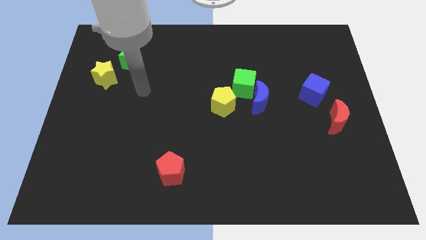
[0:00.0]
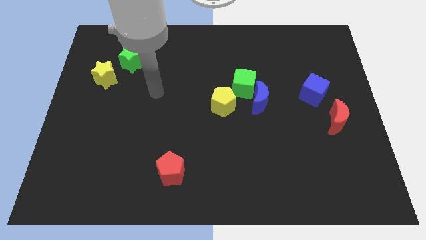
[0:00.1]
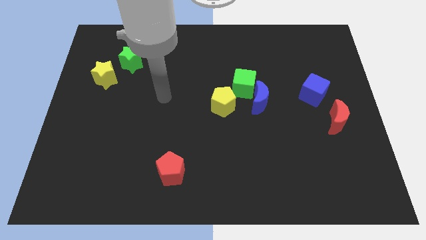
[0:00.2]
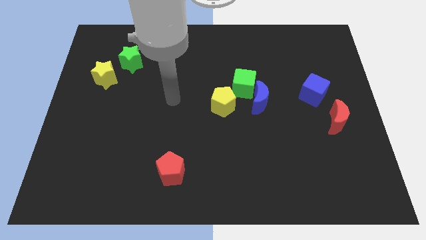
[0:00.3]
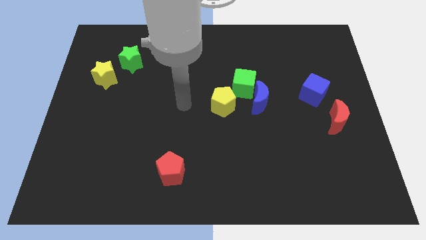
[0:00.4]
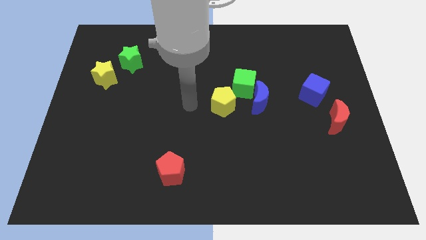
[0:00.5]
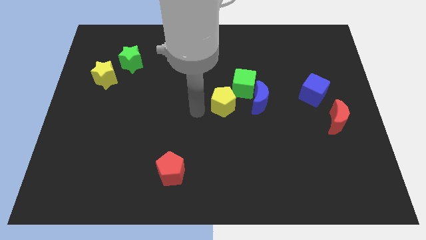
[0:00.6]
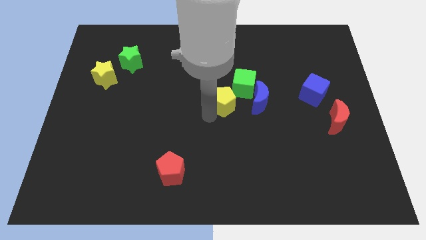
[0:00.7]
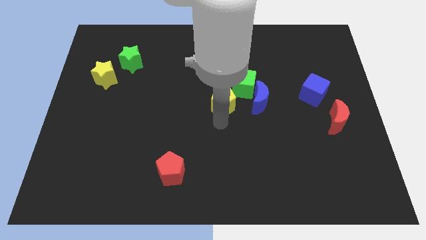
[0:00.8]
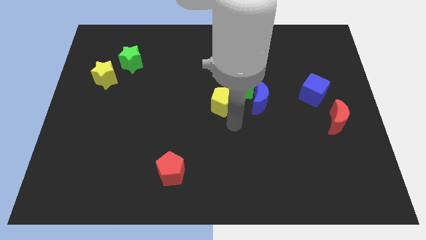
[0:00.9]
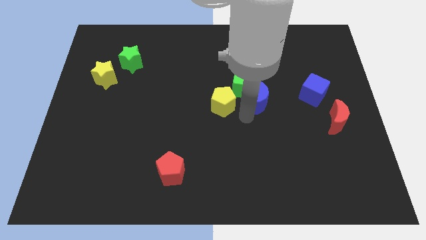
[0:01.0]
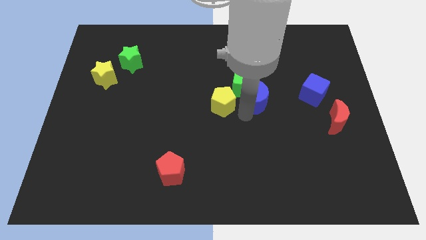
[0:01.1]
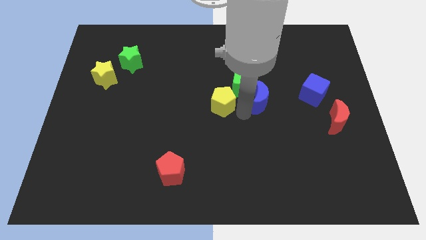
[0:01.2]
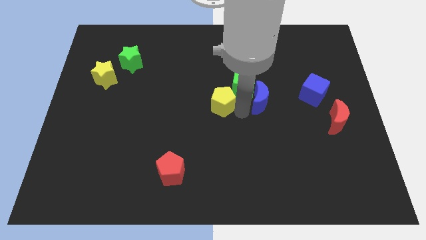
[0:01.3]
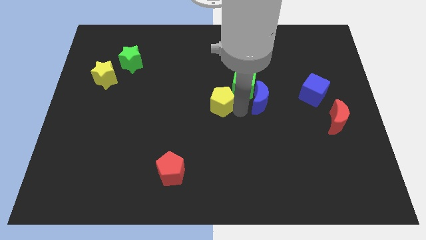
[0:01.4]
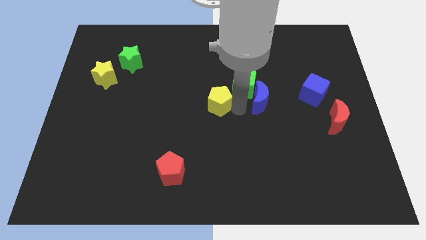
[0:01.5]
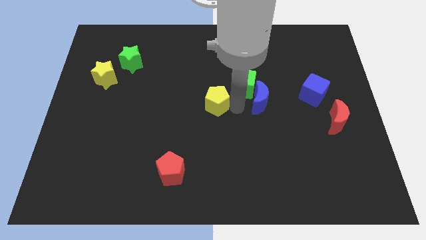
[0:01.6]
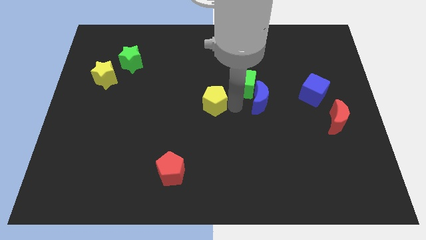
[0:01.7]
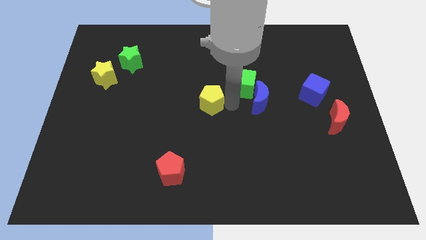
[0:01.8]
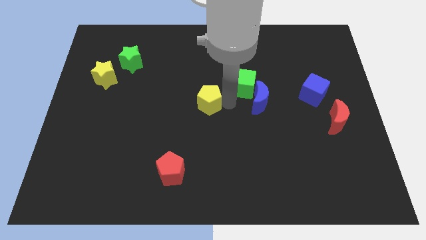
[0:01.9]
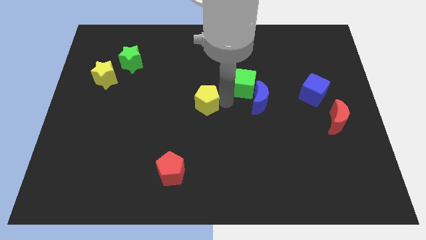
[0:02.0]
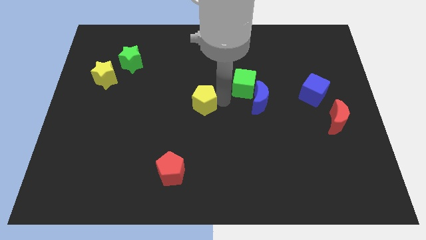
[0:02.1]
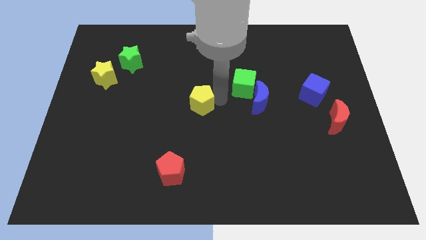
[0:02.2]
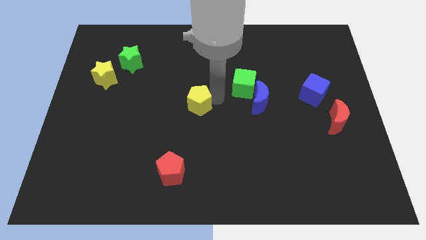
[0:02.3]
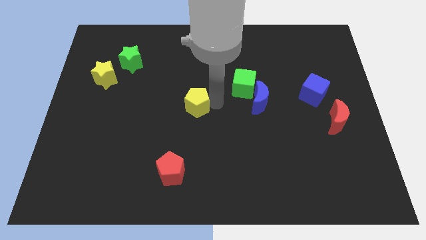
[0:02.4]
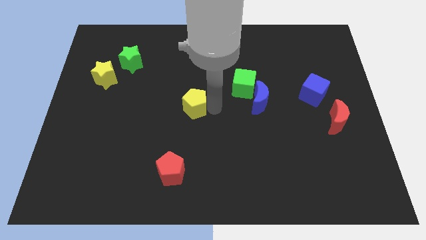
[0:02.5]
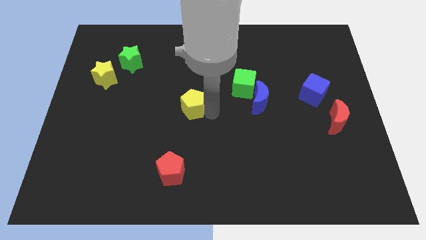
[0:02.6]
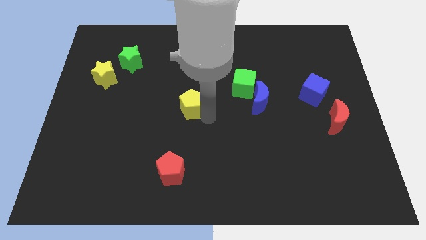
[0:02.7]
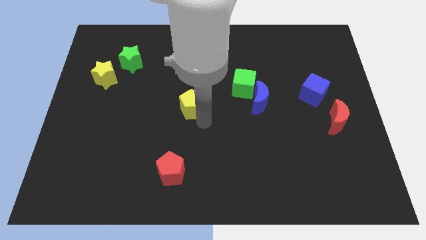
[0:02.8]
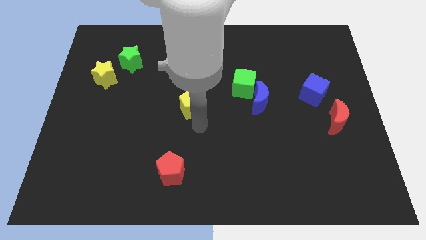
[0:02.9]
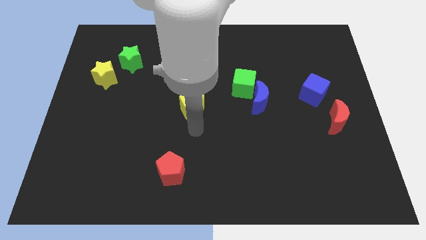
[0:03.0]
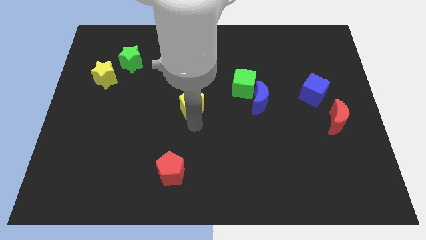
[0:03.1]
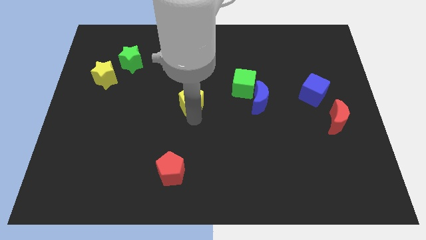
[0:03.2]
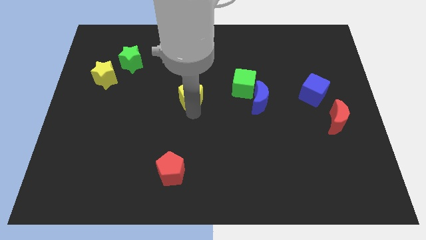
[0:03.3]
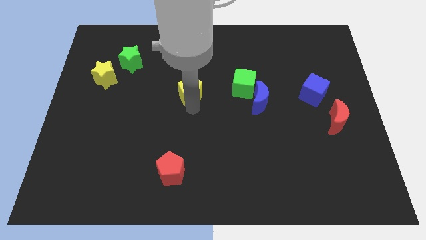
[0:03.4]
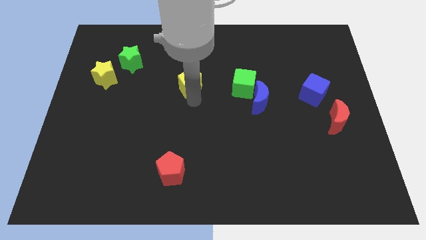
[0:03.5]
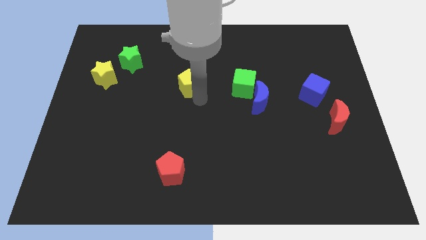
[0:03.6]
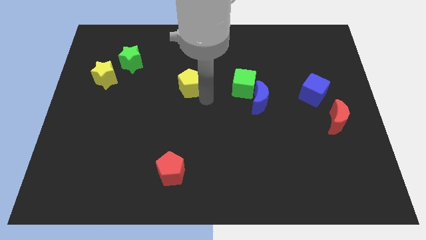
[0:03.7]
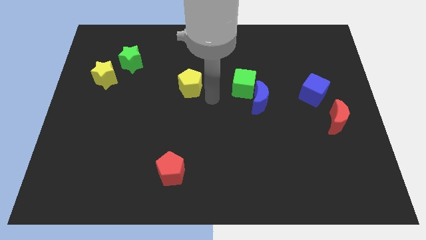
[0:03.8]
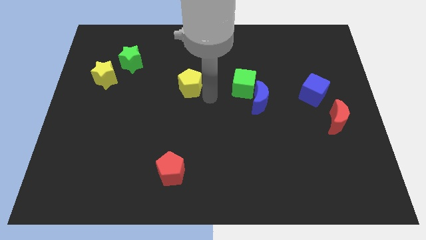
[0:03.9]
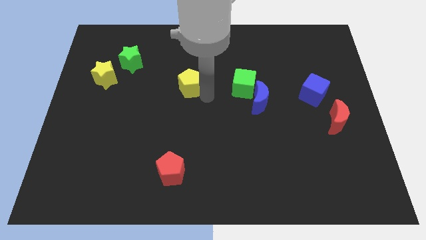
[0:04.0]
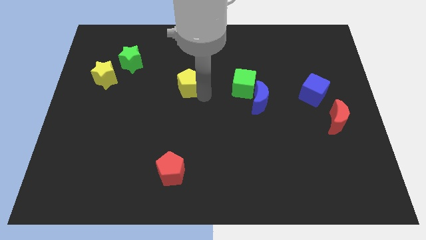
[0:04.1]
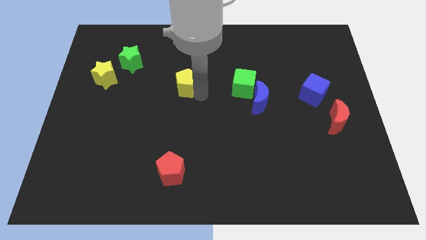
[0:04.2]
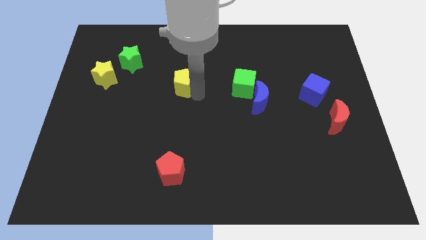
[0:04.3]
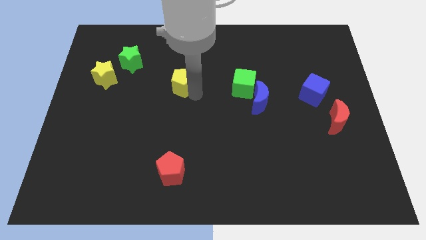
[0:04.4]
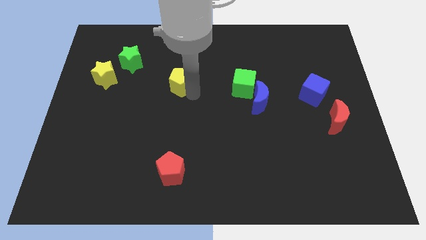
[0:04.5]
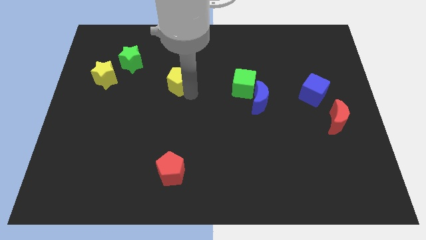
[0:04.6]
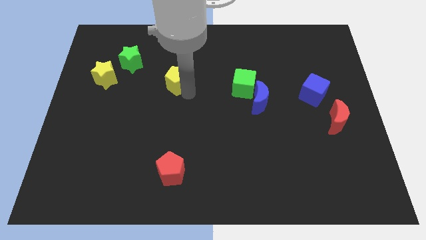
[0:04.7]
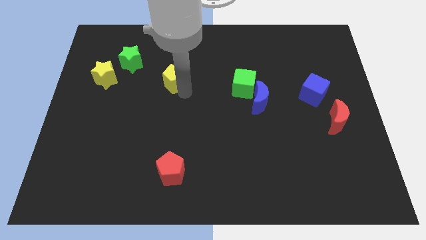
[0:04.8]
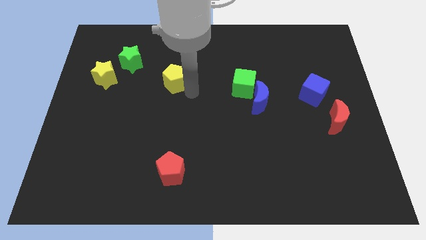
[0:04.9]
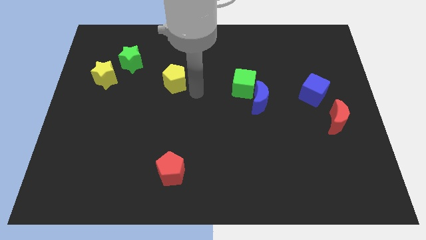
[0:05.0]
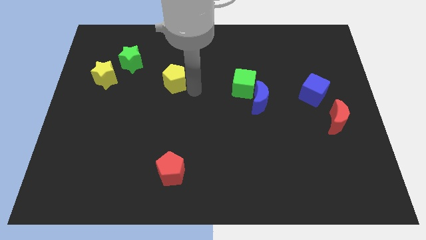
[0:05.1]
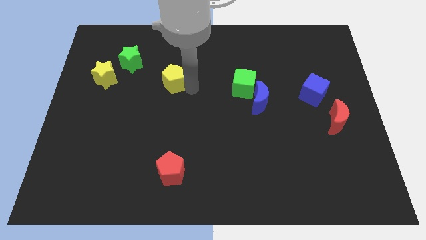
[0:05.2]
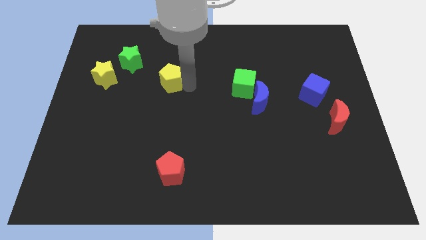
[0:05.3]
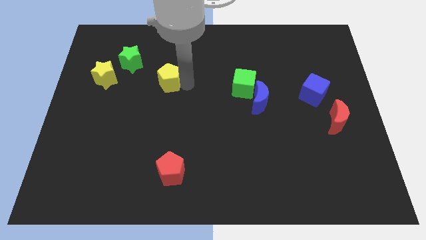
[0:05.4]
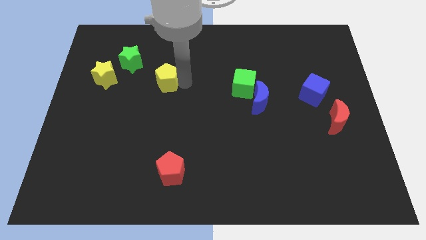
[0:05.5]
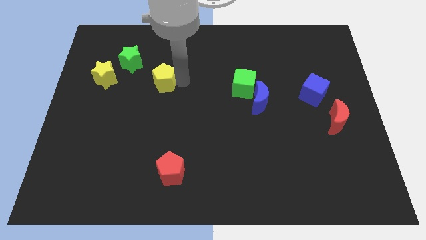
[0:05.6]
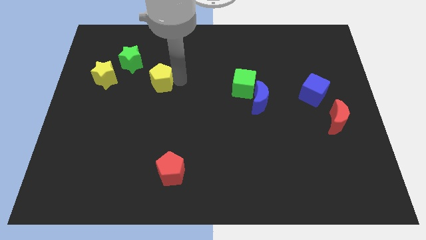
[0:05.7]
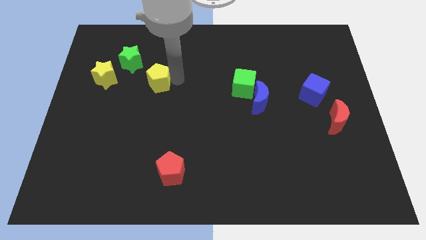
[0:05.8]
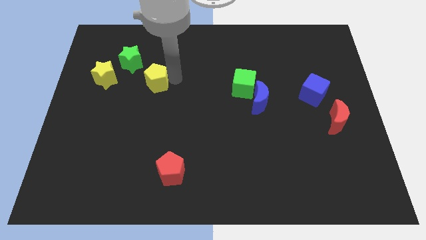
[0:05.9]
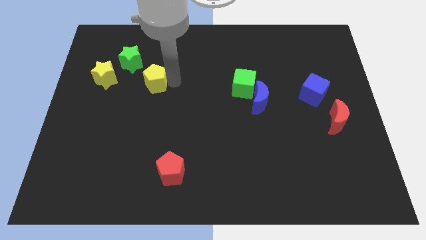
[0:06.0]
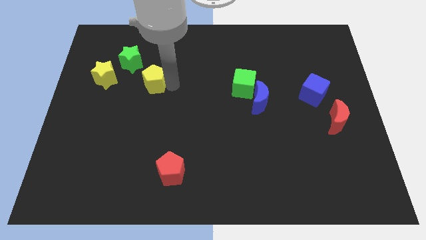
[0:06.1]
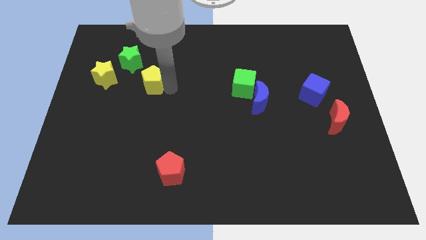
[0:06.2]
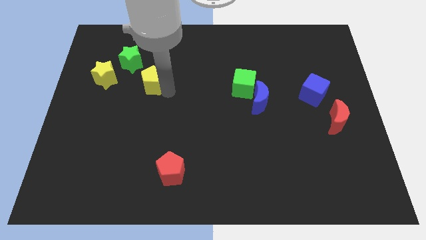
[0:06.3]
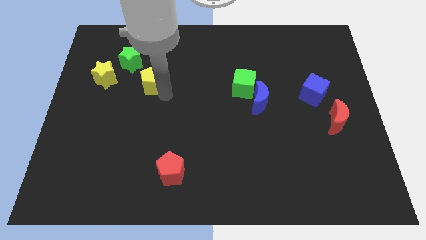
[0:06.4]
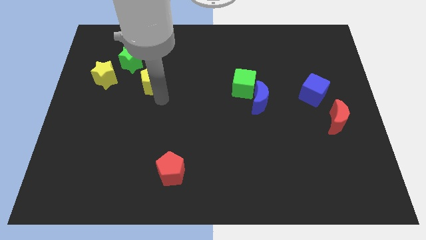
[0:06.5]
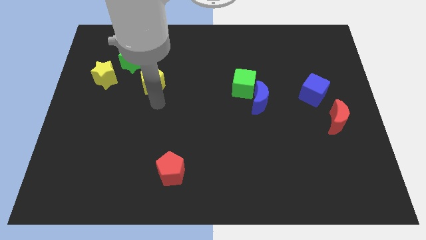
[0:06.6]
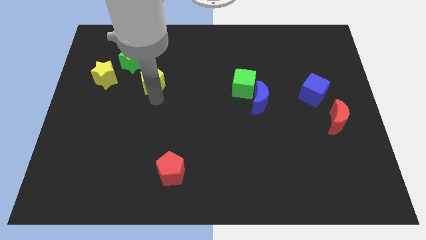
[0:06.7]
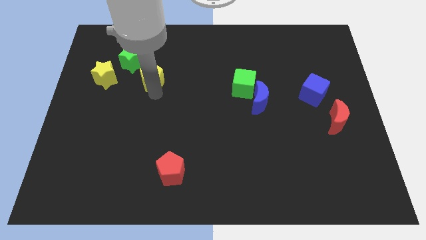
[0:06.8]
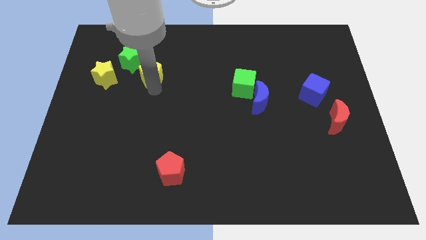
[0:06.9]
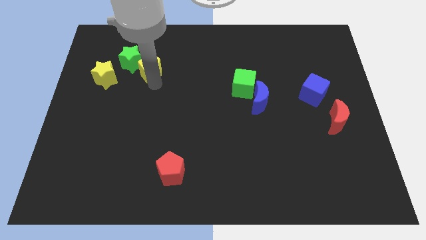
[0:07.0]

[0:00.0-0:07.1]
slide the yellow pentagon to the green star

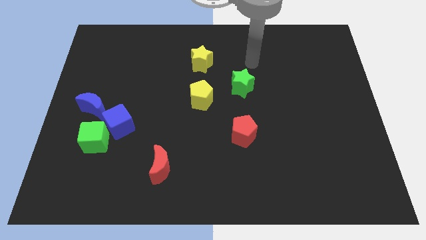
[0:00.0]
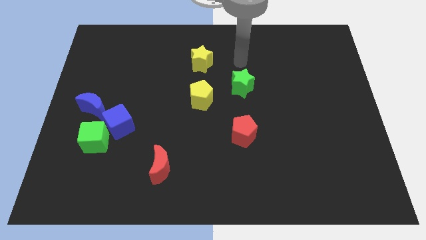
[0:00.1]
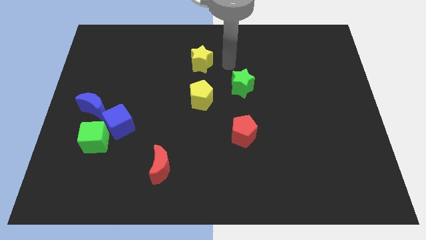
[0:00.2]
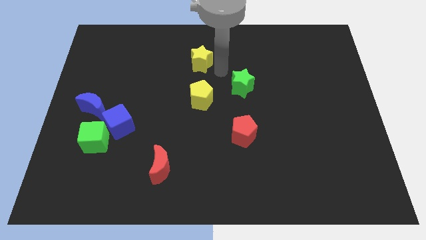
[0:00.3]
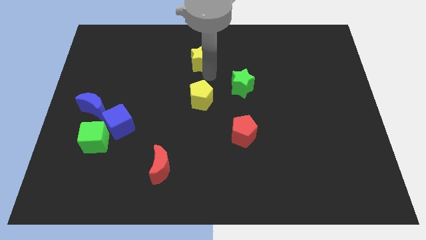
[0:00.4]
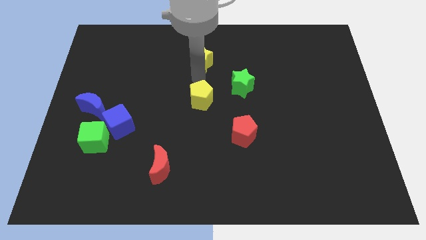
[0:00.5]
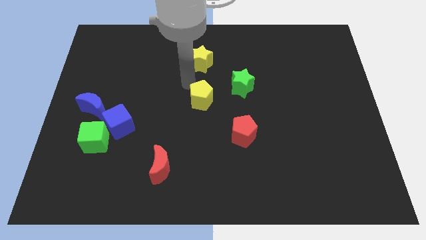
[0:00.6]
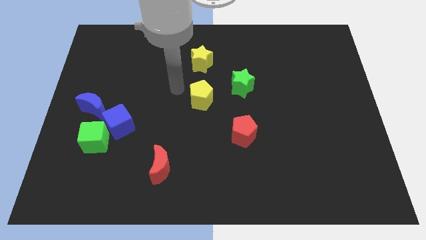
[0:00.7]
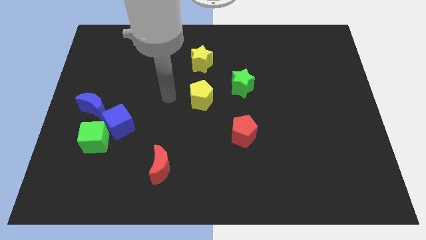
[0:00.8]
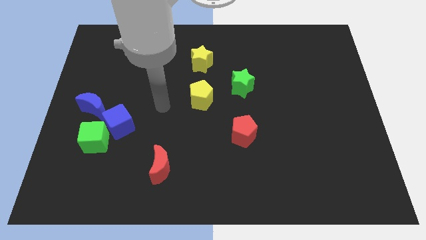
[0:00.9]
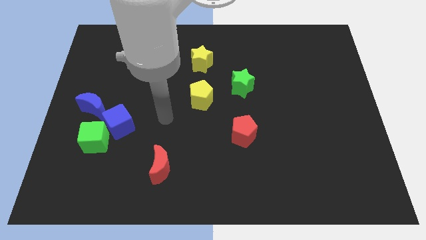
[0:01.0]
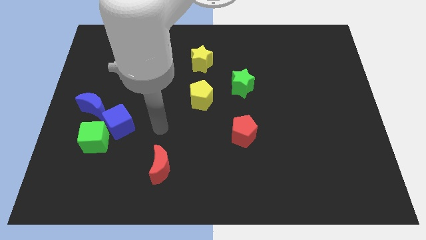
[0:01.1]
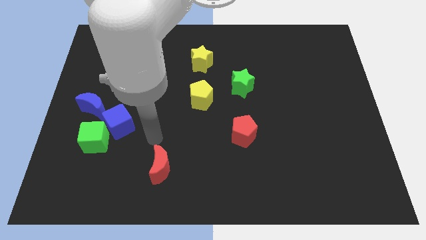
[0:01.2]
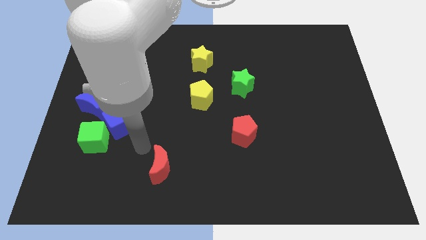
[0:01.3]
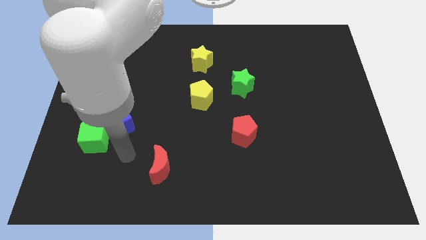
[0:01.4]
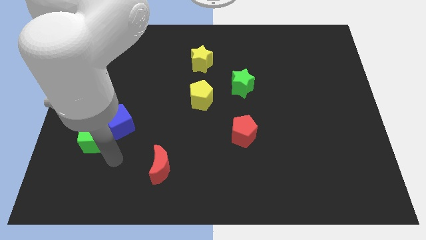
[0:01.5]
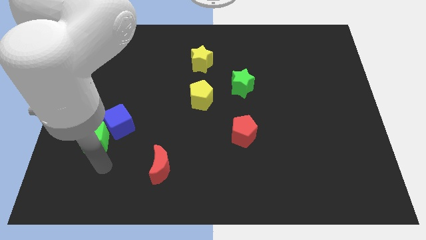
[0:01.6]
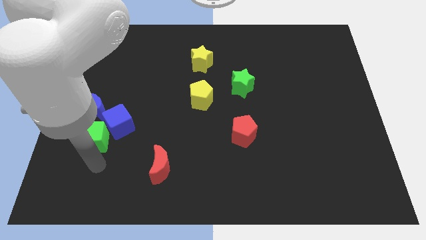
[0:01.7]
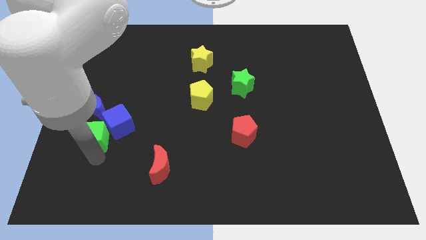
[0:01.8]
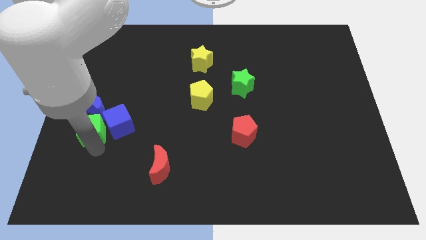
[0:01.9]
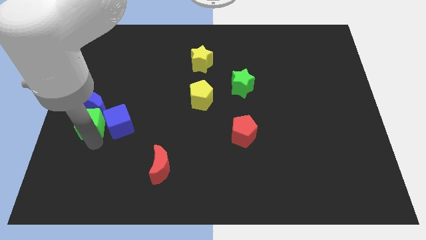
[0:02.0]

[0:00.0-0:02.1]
push the green cube to the blue moon
